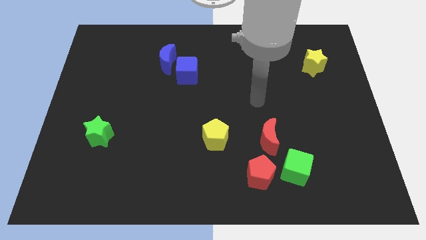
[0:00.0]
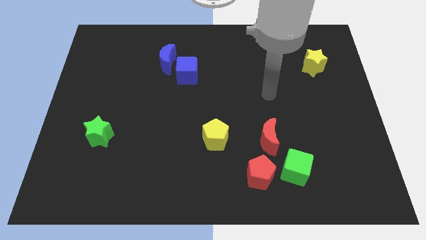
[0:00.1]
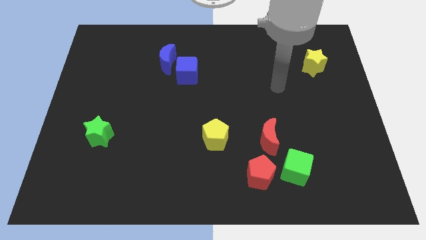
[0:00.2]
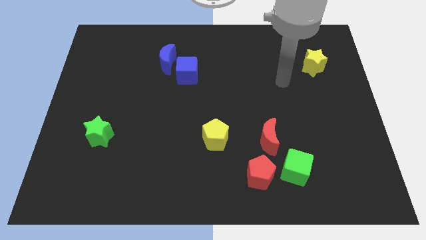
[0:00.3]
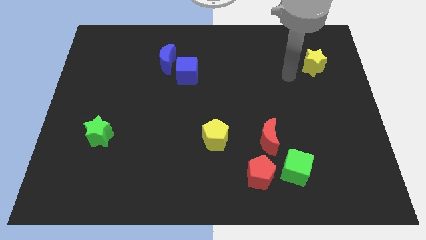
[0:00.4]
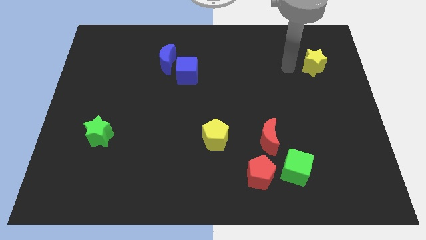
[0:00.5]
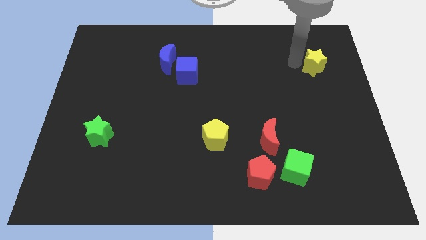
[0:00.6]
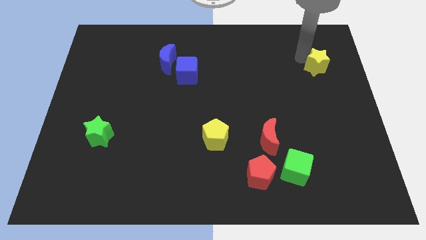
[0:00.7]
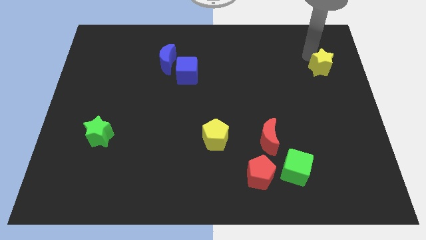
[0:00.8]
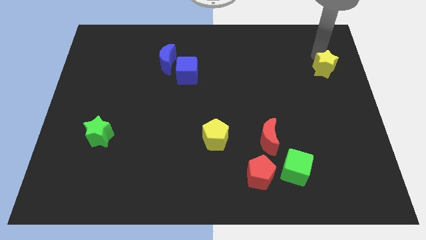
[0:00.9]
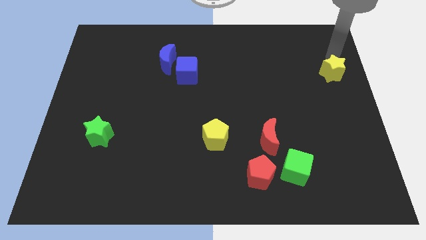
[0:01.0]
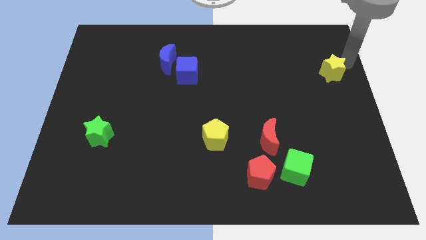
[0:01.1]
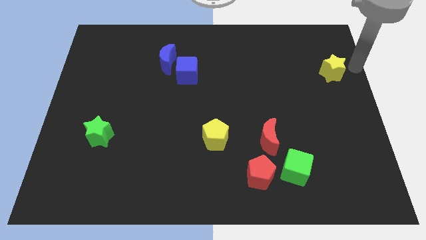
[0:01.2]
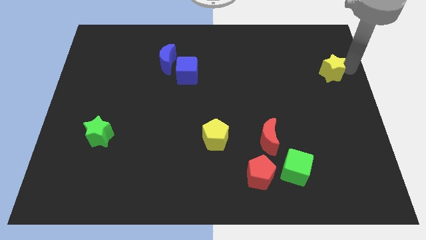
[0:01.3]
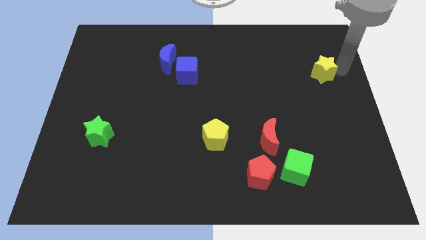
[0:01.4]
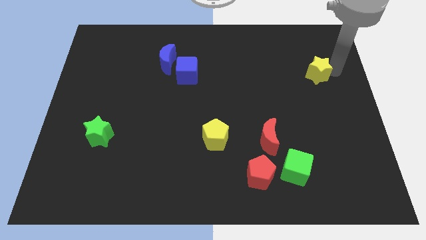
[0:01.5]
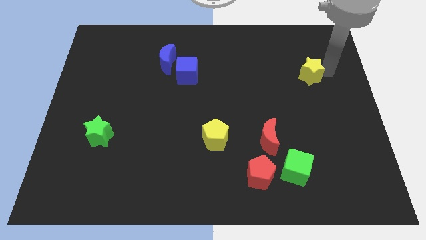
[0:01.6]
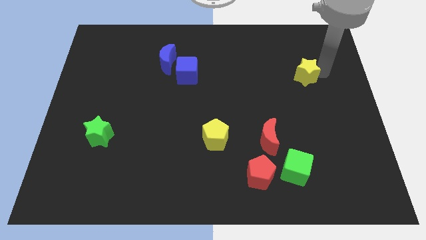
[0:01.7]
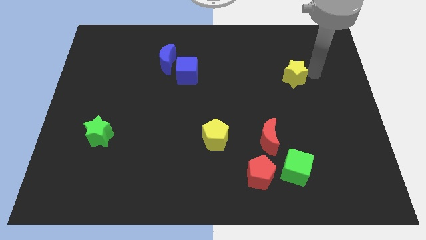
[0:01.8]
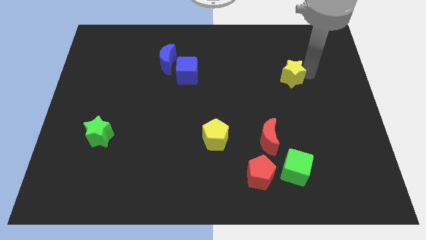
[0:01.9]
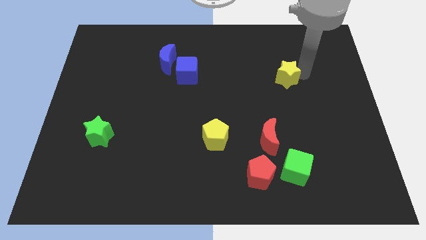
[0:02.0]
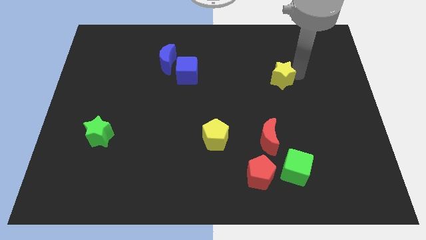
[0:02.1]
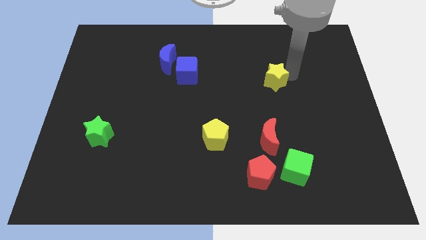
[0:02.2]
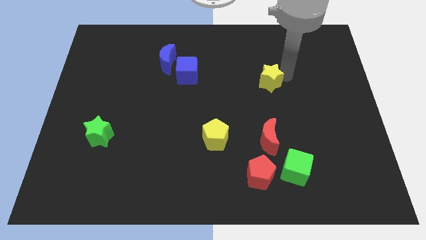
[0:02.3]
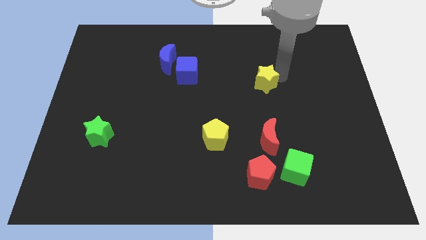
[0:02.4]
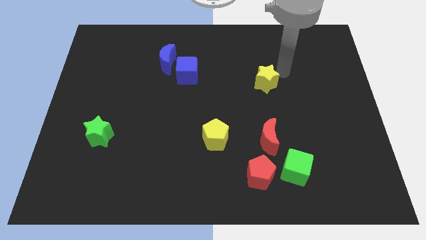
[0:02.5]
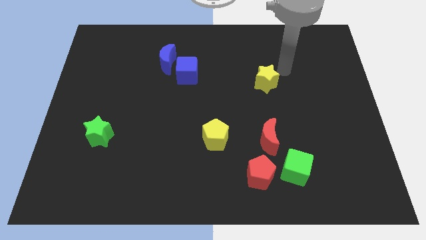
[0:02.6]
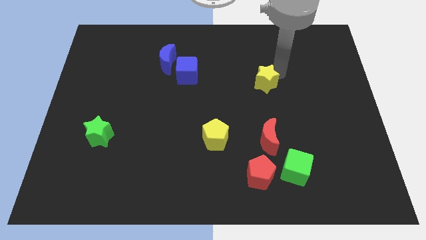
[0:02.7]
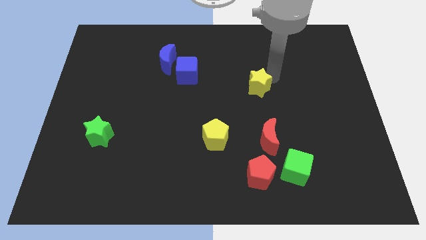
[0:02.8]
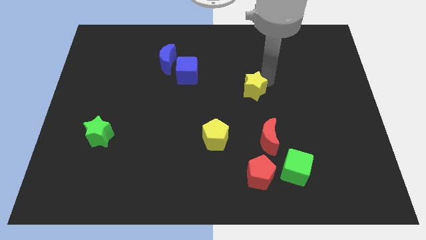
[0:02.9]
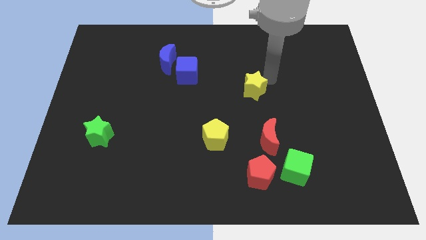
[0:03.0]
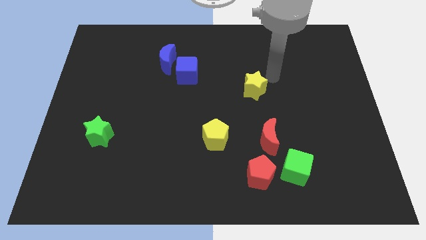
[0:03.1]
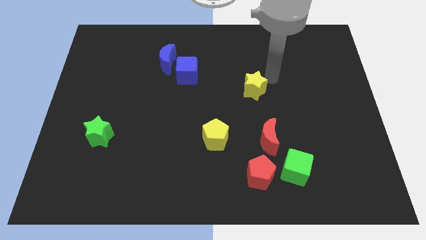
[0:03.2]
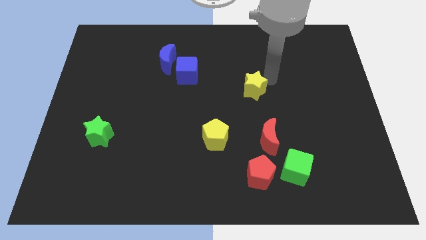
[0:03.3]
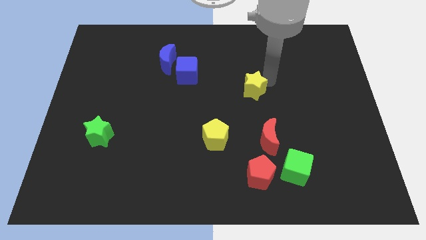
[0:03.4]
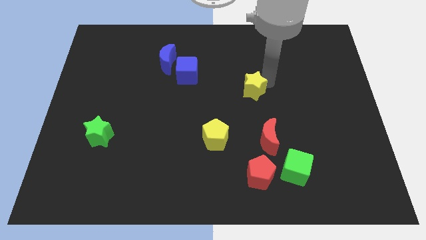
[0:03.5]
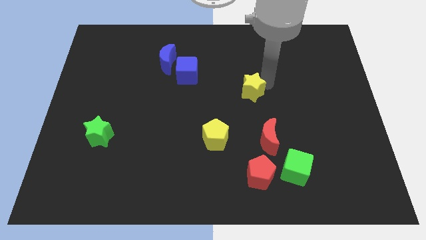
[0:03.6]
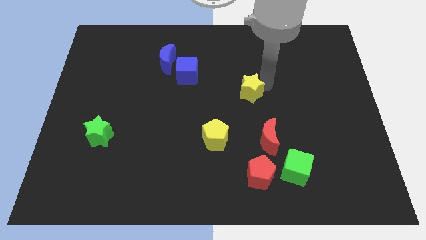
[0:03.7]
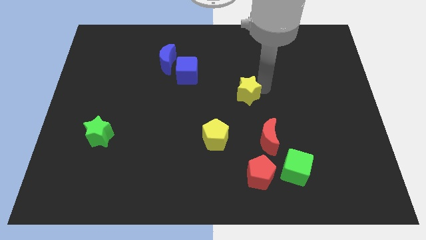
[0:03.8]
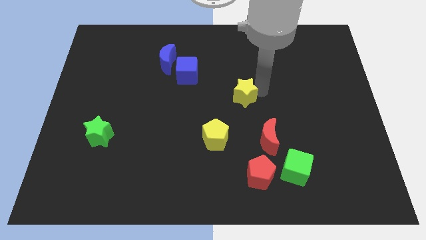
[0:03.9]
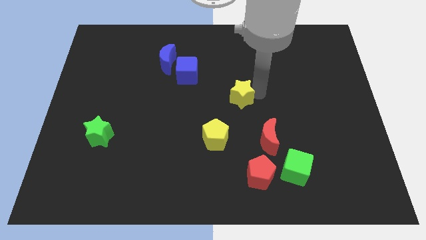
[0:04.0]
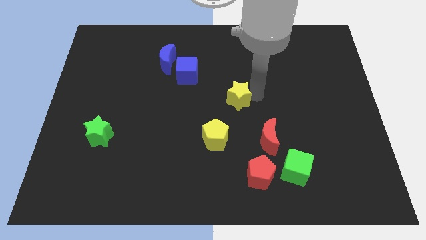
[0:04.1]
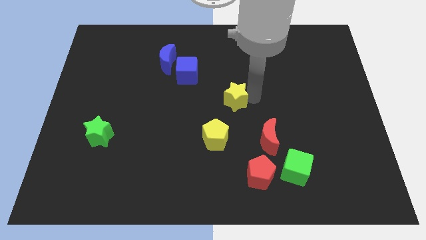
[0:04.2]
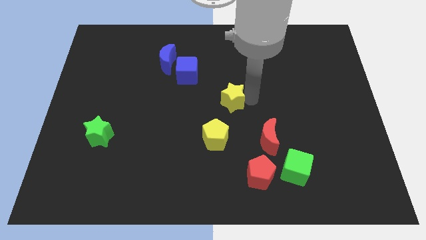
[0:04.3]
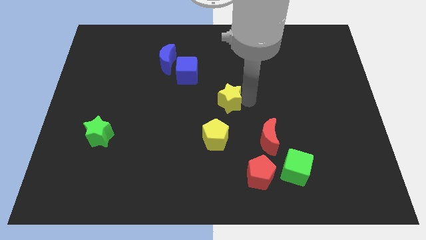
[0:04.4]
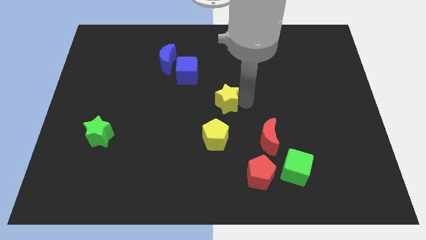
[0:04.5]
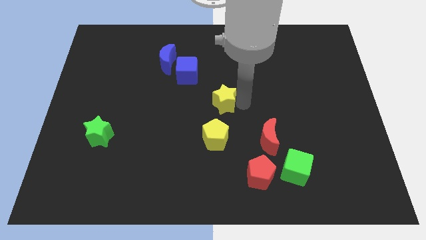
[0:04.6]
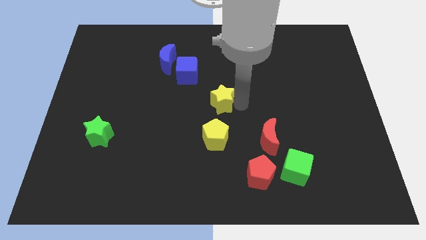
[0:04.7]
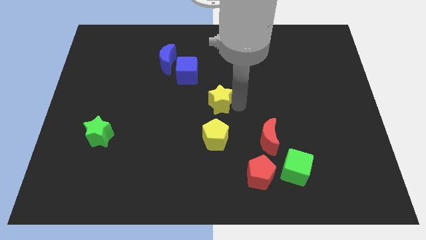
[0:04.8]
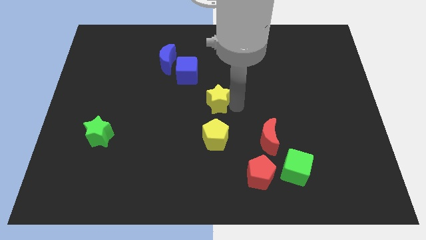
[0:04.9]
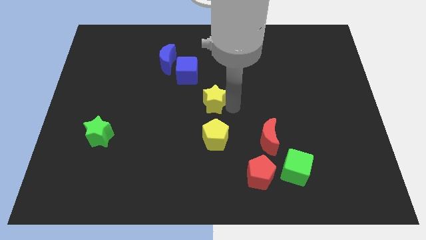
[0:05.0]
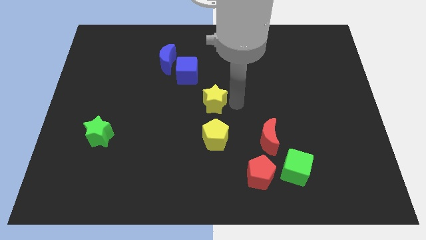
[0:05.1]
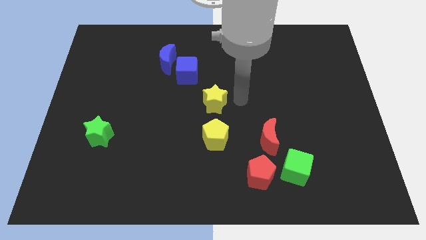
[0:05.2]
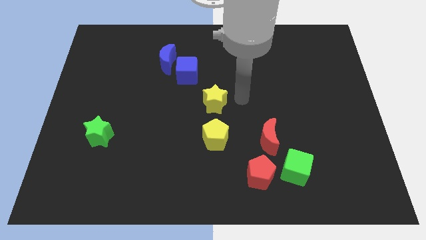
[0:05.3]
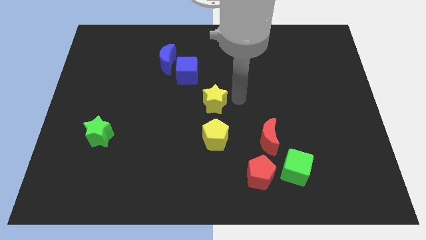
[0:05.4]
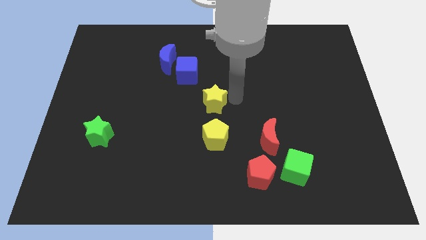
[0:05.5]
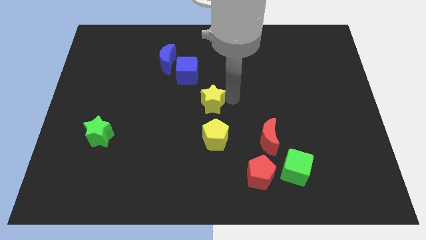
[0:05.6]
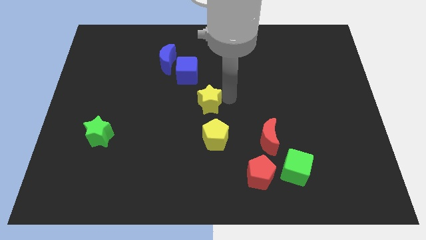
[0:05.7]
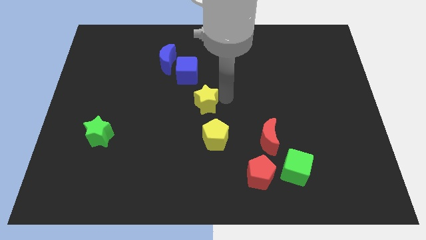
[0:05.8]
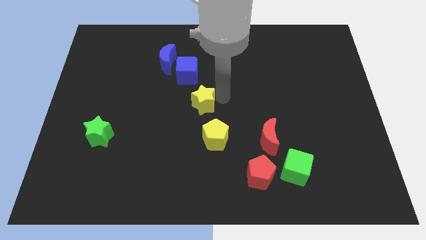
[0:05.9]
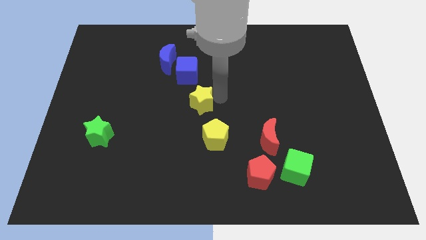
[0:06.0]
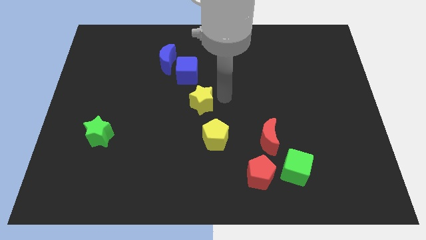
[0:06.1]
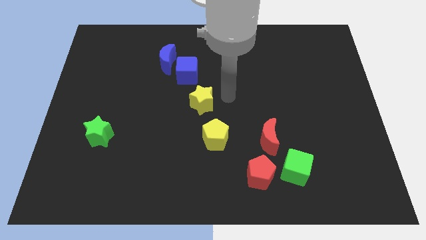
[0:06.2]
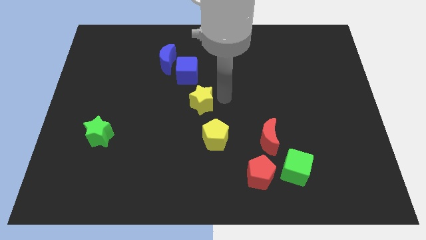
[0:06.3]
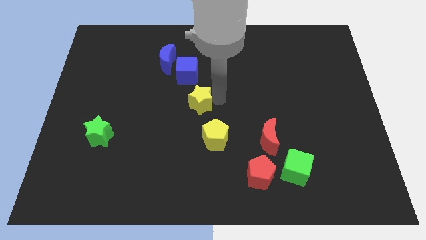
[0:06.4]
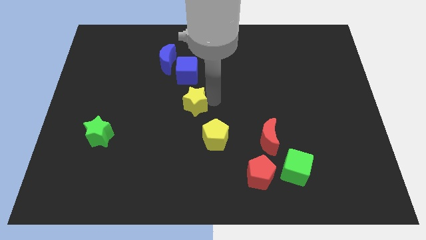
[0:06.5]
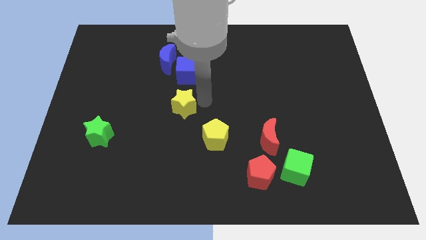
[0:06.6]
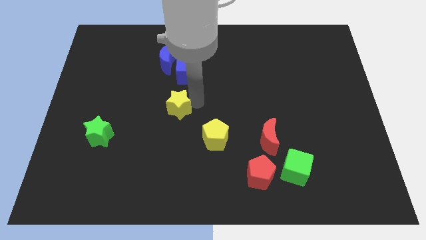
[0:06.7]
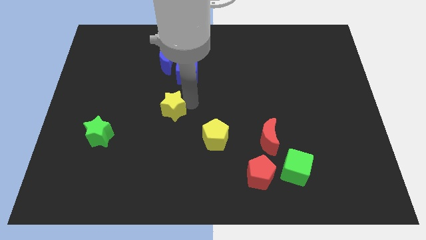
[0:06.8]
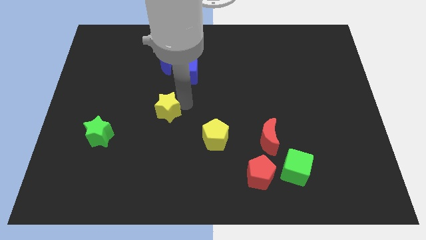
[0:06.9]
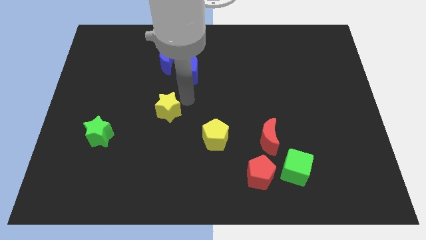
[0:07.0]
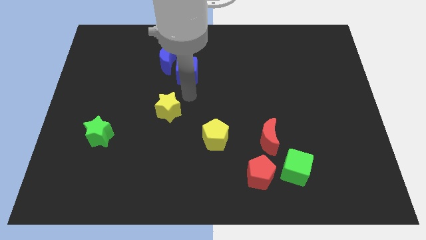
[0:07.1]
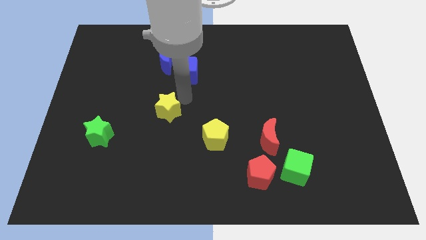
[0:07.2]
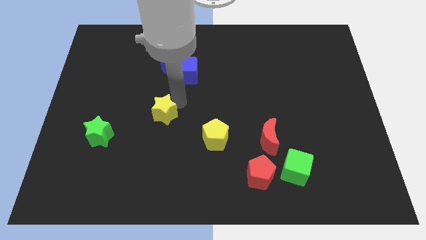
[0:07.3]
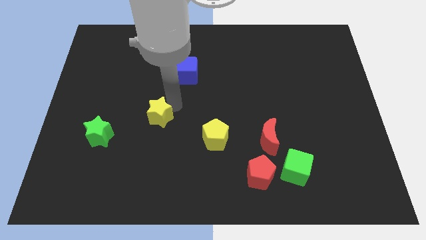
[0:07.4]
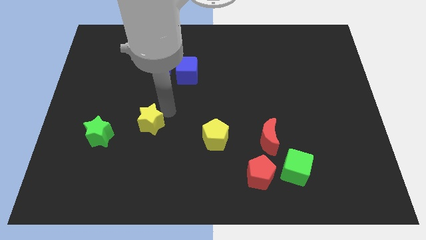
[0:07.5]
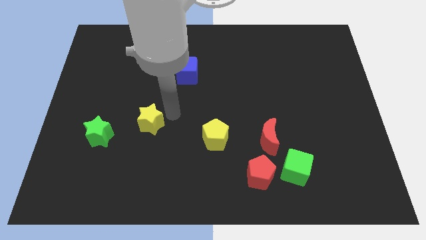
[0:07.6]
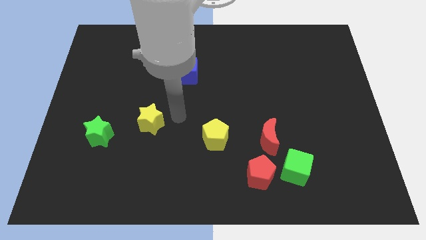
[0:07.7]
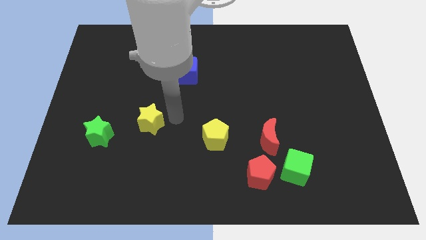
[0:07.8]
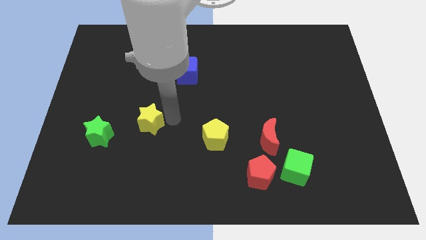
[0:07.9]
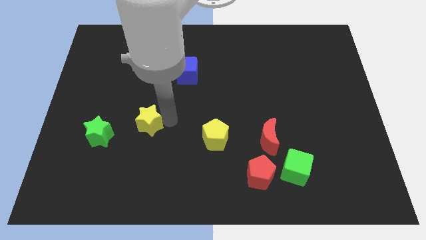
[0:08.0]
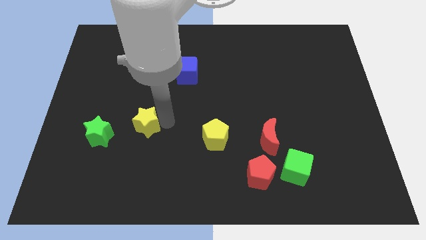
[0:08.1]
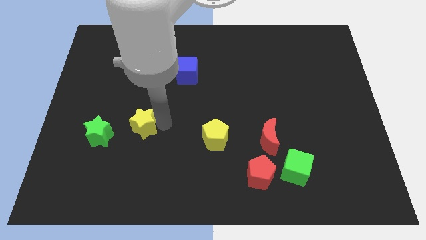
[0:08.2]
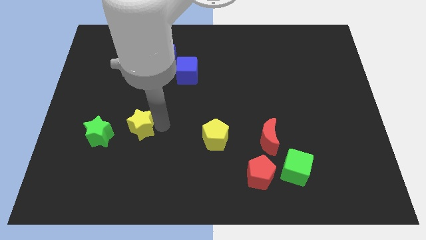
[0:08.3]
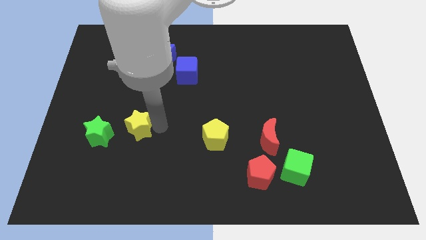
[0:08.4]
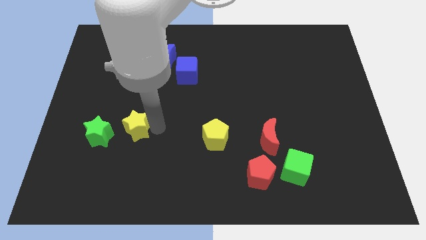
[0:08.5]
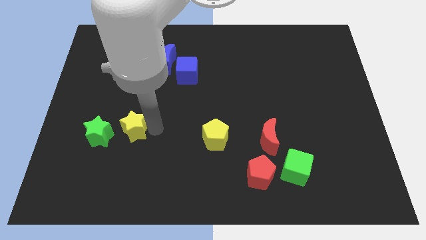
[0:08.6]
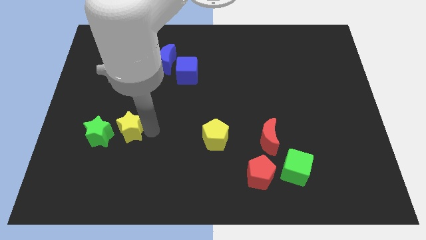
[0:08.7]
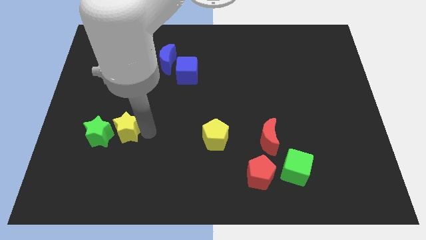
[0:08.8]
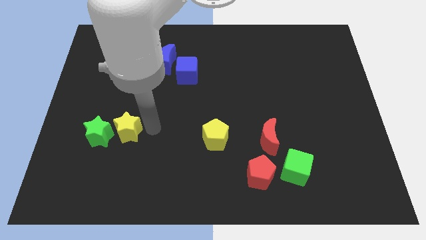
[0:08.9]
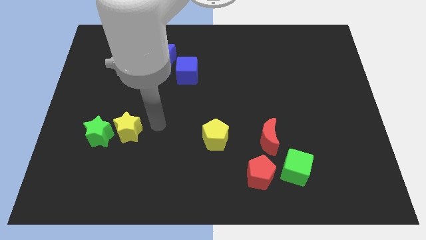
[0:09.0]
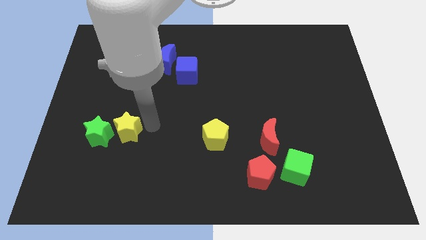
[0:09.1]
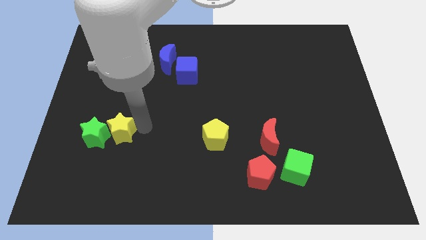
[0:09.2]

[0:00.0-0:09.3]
put the yellow star towards the green star
